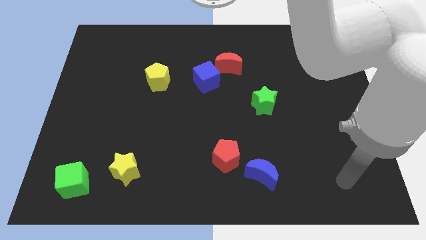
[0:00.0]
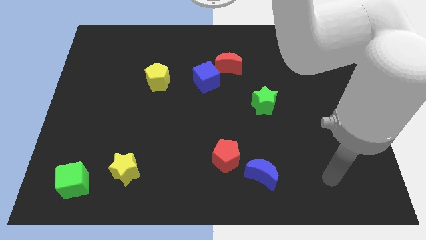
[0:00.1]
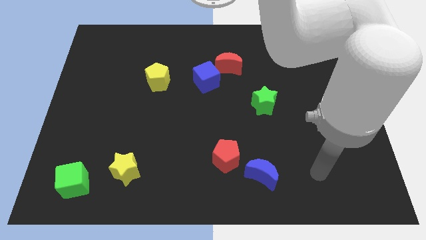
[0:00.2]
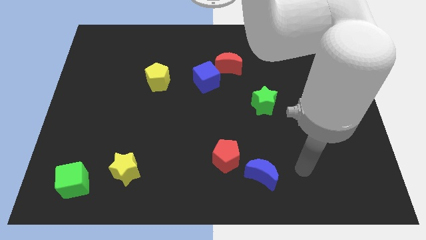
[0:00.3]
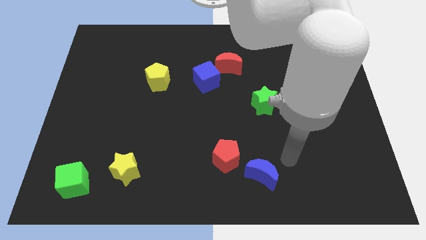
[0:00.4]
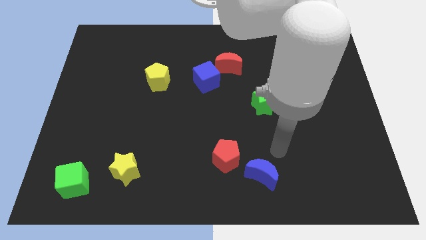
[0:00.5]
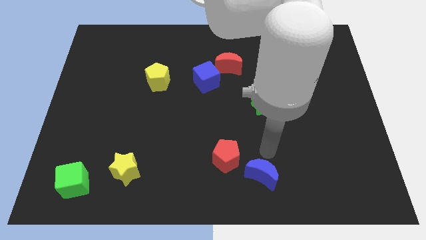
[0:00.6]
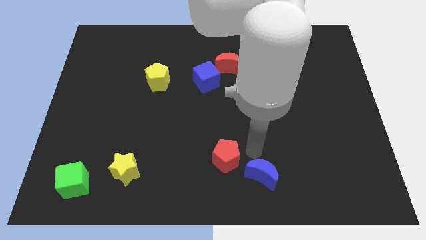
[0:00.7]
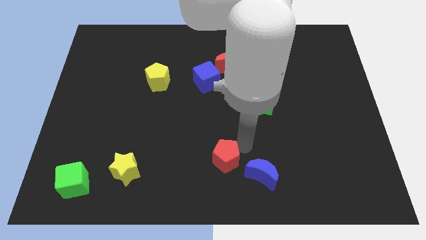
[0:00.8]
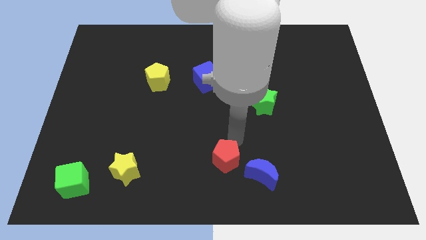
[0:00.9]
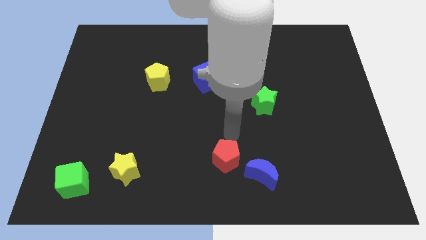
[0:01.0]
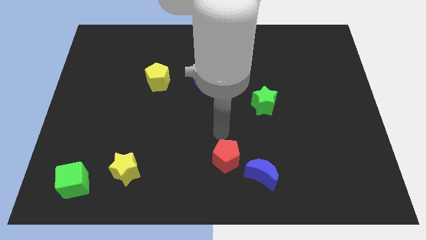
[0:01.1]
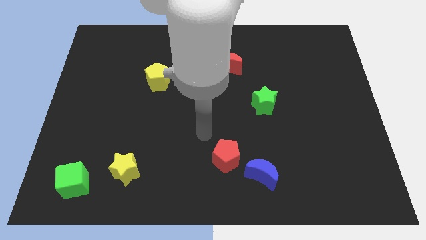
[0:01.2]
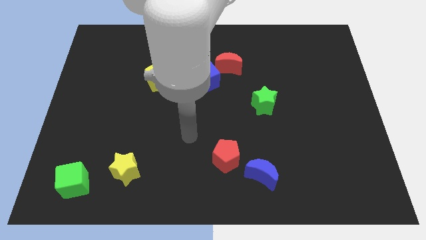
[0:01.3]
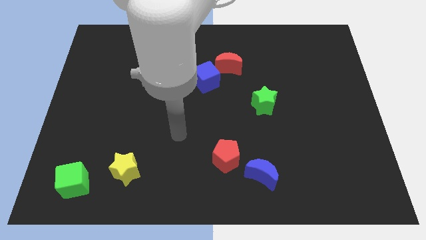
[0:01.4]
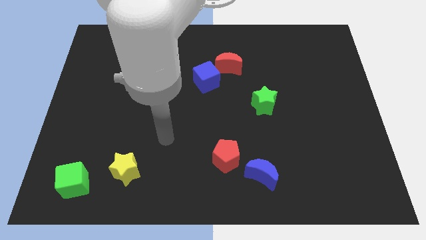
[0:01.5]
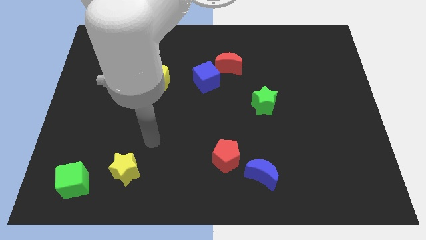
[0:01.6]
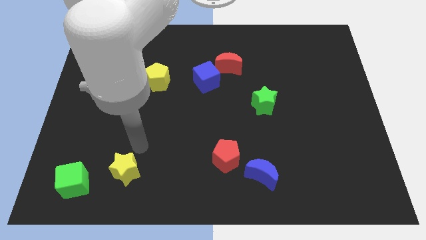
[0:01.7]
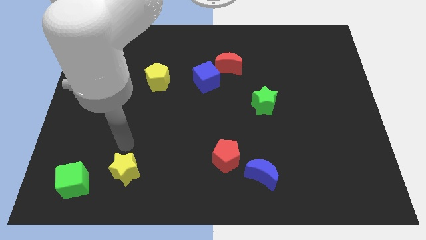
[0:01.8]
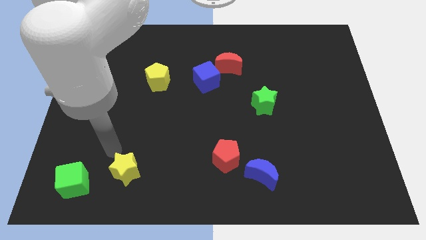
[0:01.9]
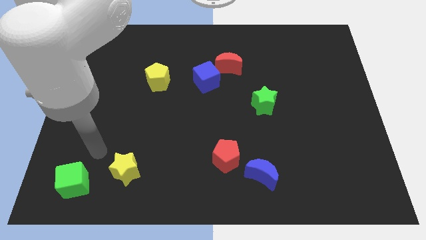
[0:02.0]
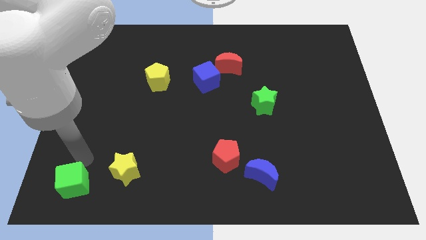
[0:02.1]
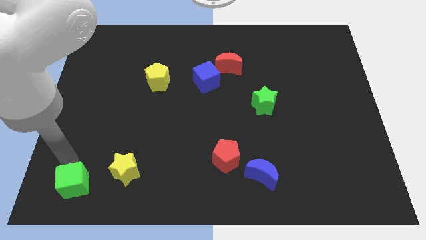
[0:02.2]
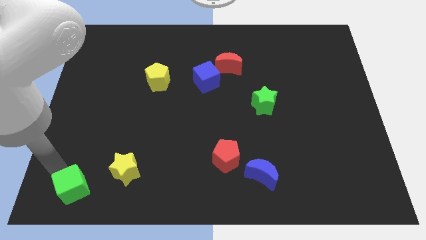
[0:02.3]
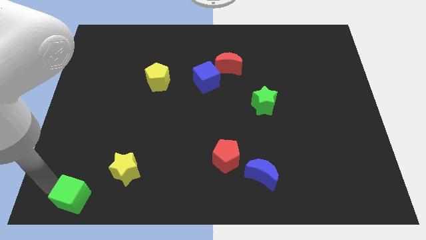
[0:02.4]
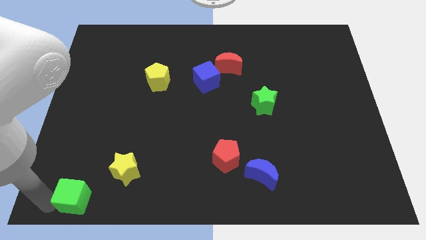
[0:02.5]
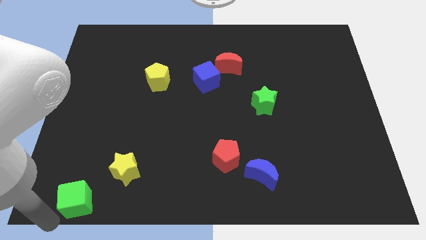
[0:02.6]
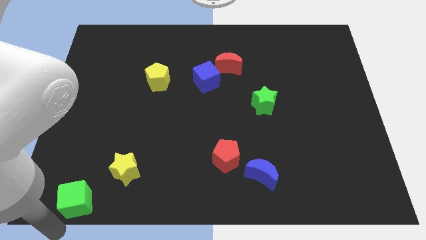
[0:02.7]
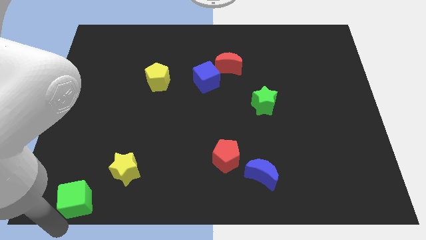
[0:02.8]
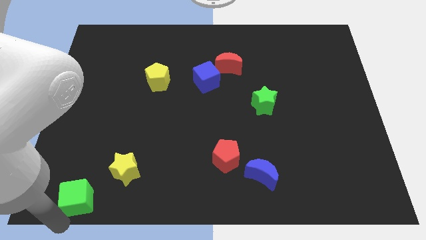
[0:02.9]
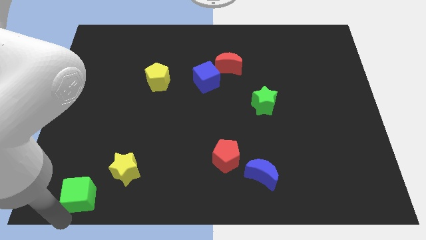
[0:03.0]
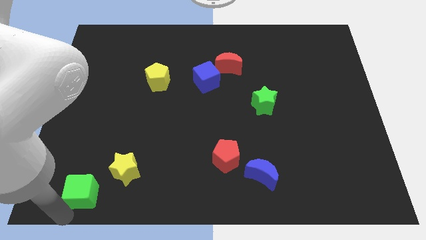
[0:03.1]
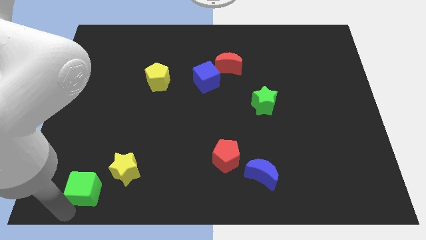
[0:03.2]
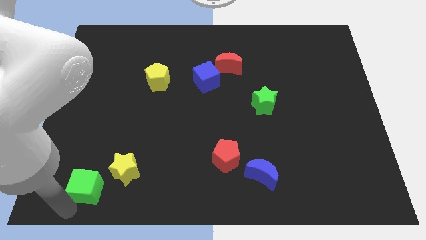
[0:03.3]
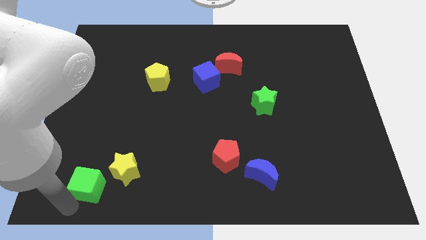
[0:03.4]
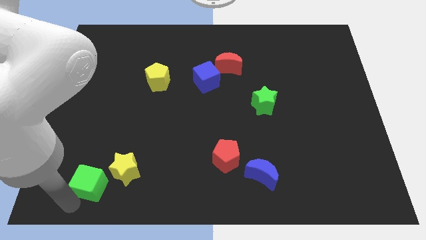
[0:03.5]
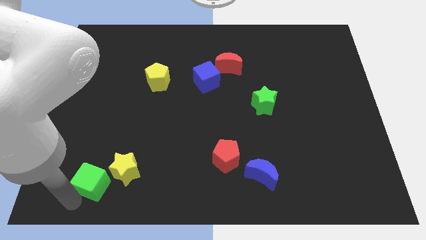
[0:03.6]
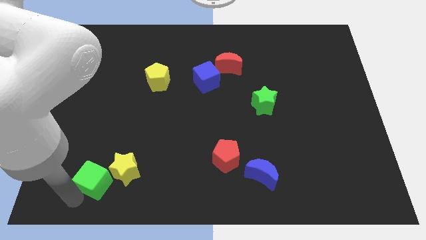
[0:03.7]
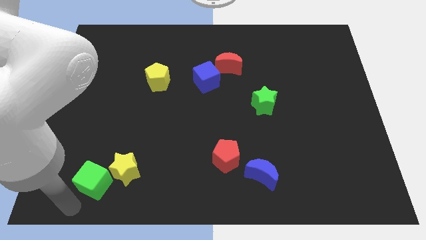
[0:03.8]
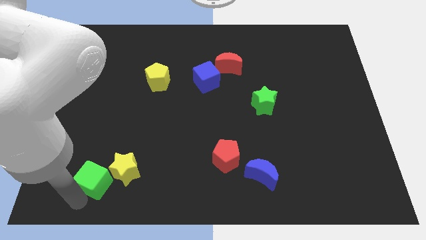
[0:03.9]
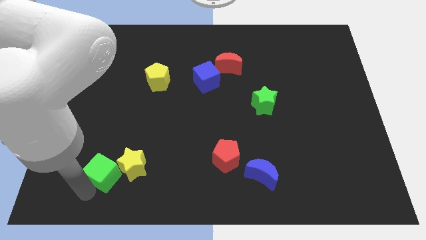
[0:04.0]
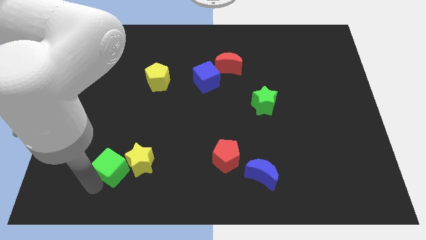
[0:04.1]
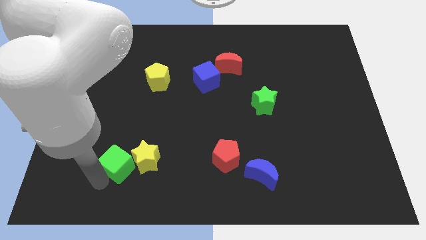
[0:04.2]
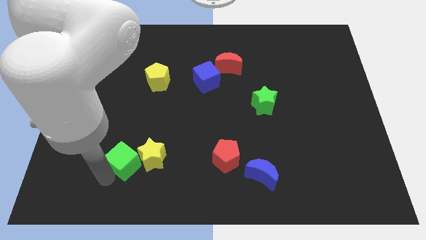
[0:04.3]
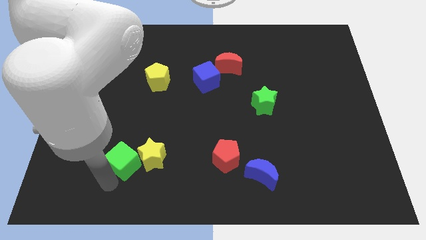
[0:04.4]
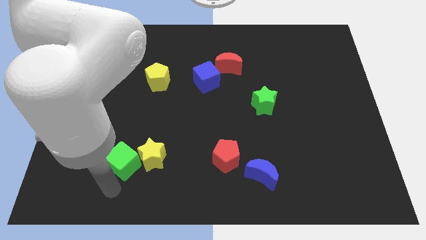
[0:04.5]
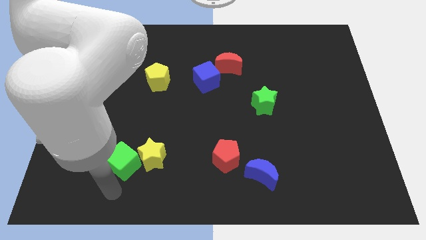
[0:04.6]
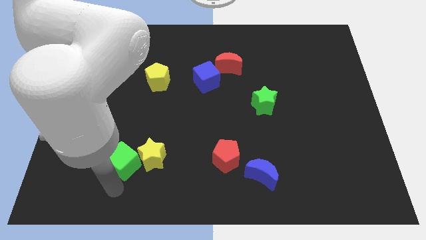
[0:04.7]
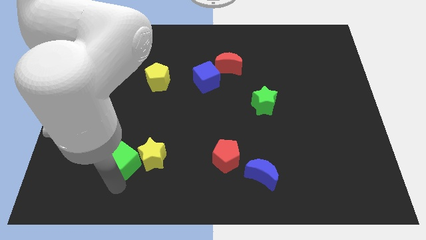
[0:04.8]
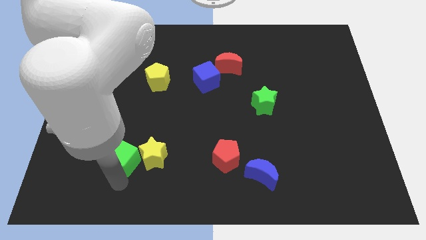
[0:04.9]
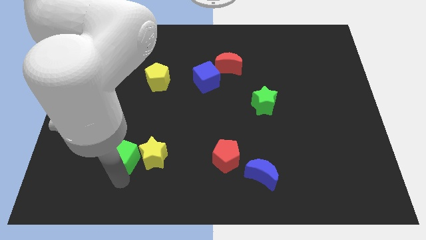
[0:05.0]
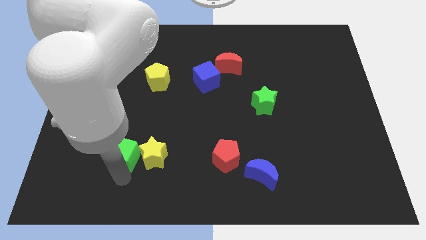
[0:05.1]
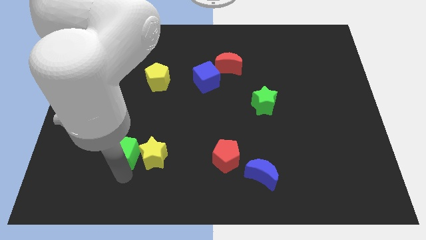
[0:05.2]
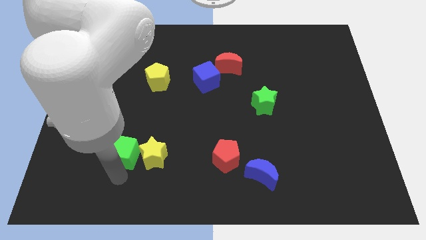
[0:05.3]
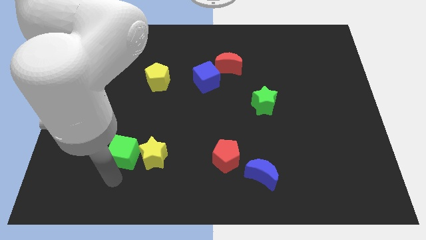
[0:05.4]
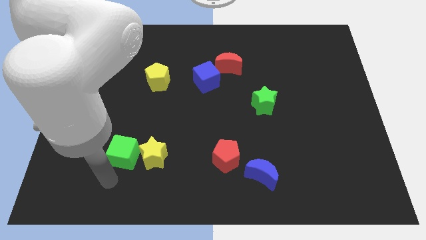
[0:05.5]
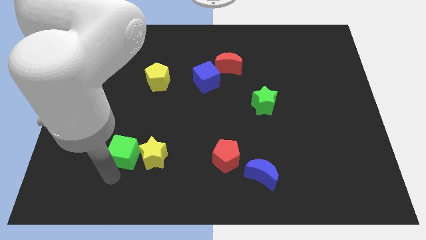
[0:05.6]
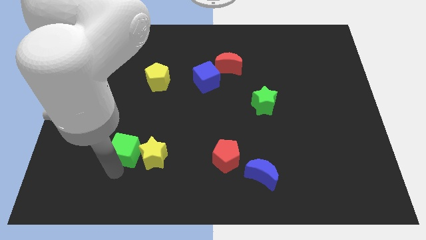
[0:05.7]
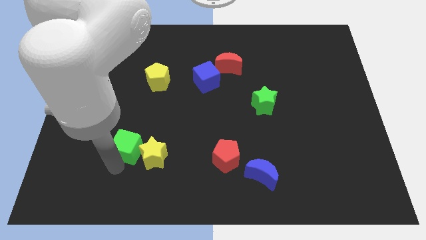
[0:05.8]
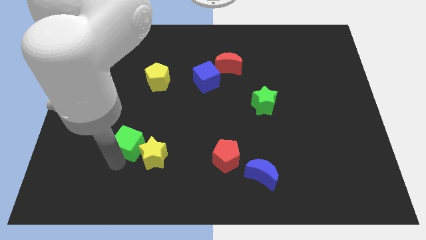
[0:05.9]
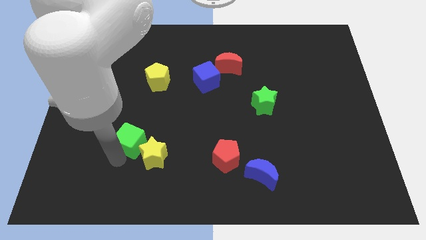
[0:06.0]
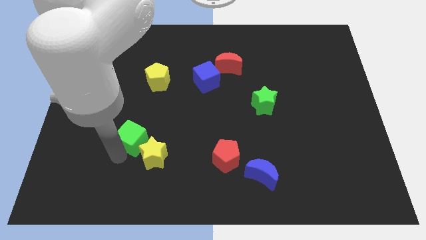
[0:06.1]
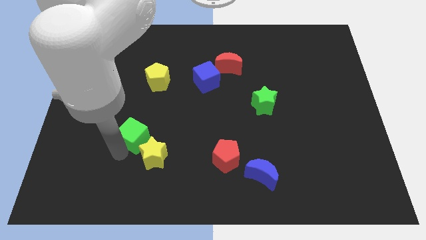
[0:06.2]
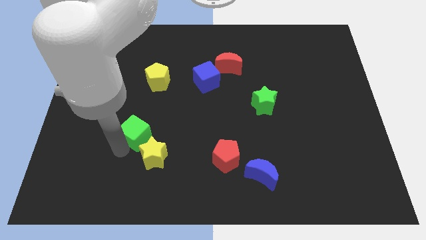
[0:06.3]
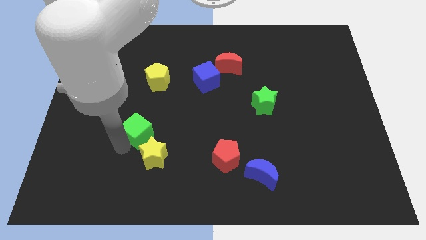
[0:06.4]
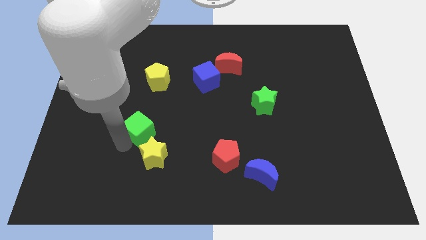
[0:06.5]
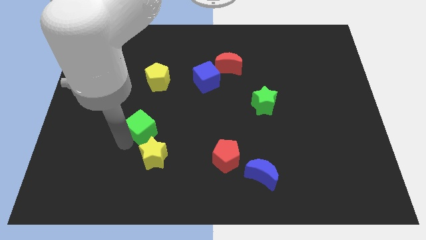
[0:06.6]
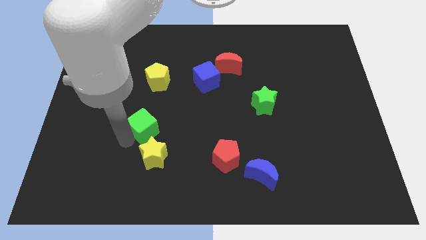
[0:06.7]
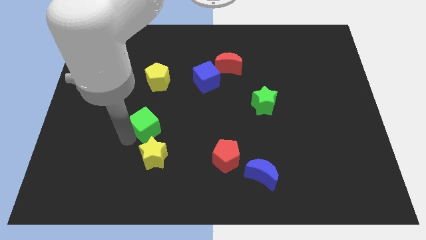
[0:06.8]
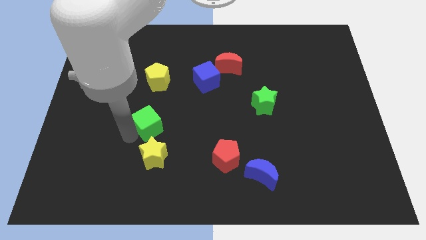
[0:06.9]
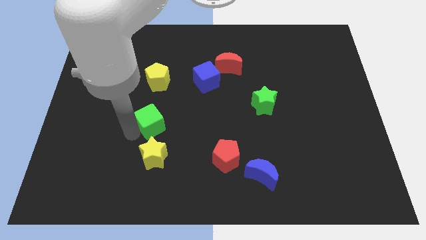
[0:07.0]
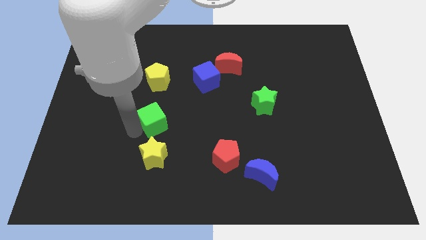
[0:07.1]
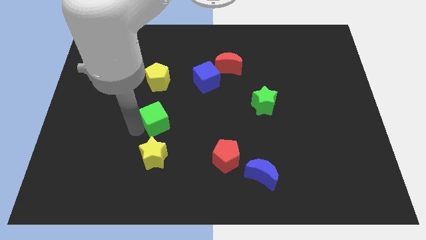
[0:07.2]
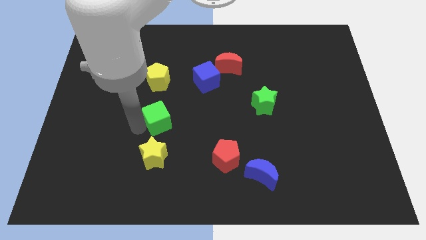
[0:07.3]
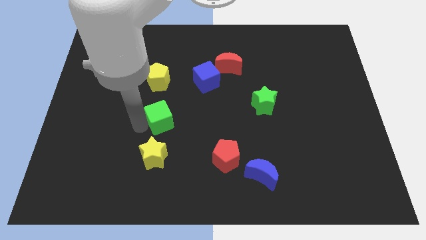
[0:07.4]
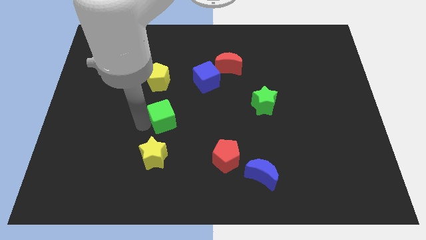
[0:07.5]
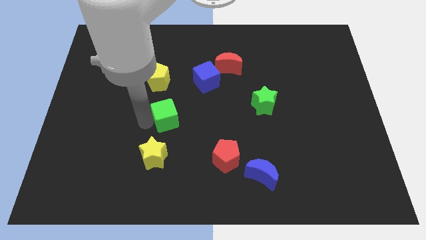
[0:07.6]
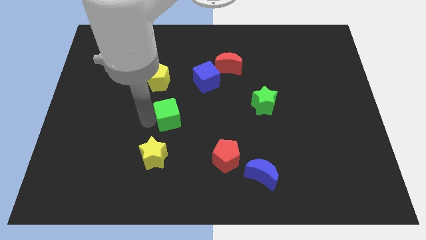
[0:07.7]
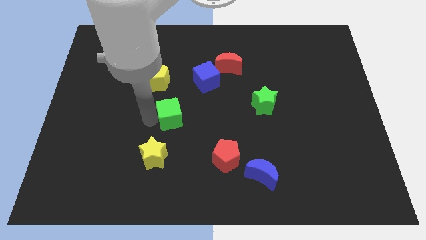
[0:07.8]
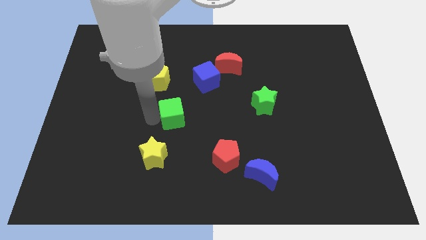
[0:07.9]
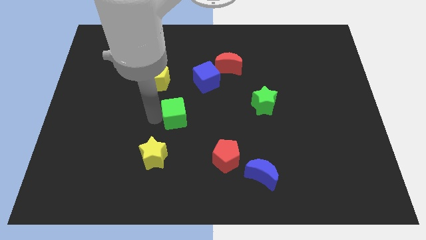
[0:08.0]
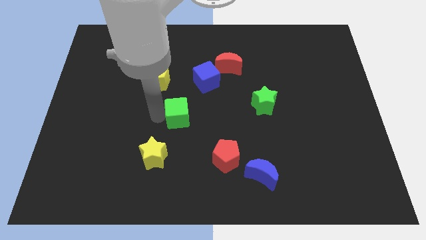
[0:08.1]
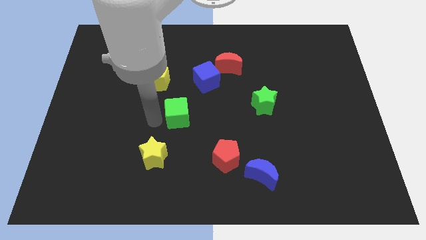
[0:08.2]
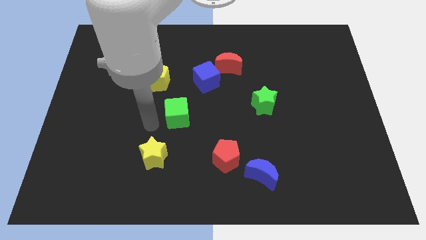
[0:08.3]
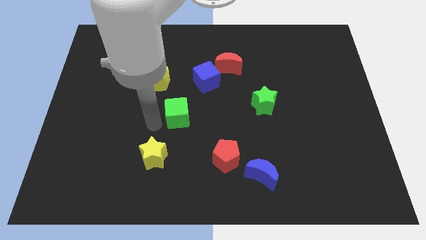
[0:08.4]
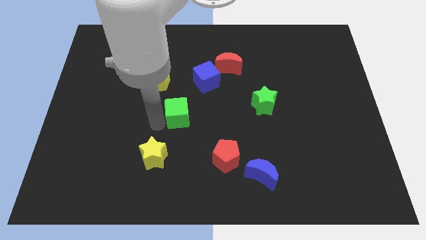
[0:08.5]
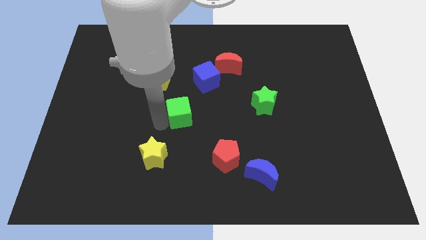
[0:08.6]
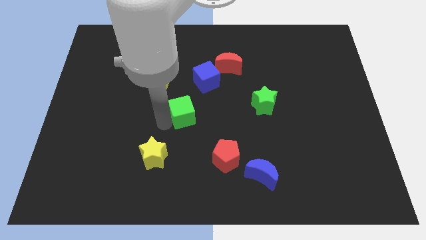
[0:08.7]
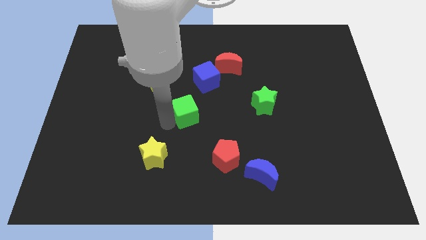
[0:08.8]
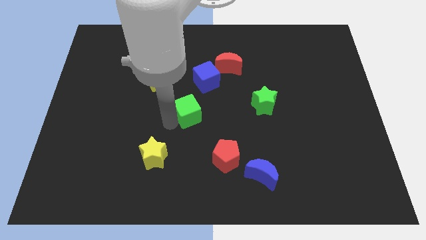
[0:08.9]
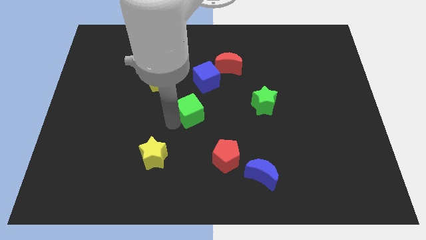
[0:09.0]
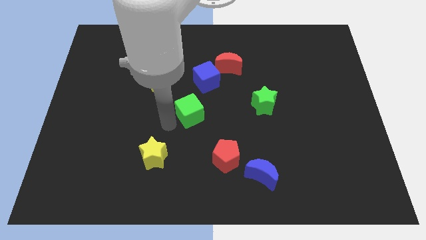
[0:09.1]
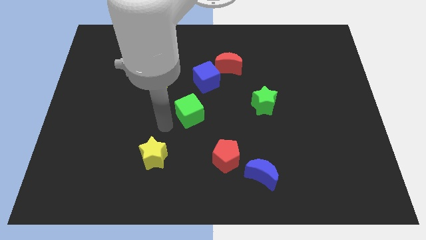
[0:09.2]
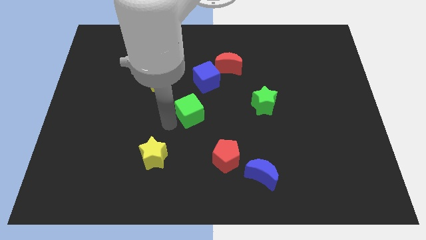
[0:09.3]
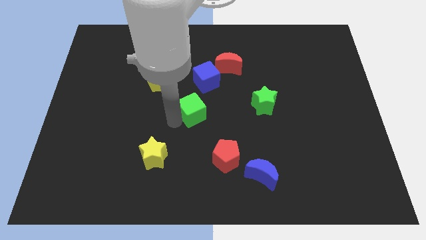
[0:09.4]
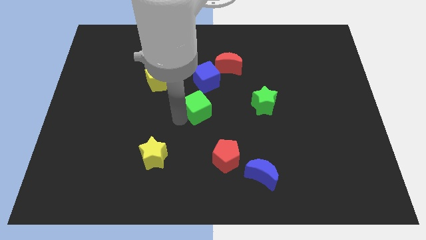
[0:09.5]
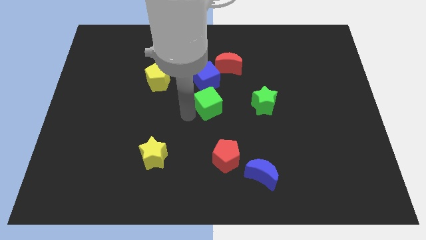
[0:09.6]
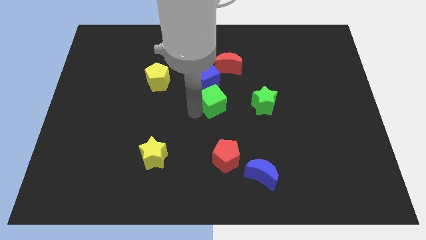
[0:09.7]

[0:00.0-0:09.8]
slide the green cube to the bottom of the red moon
